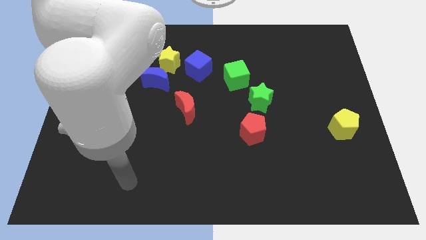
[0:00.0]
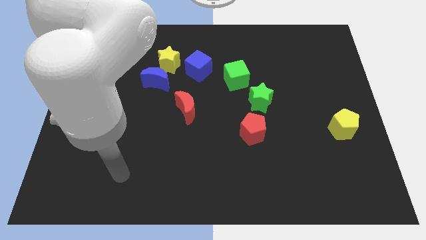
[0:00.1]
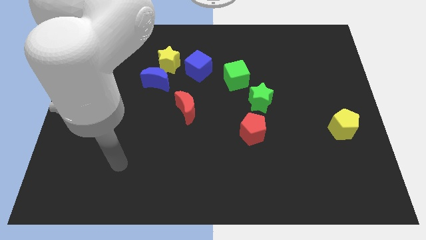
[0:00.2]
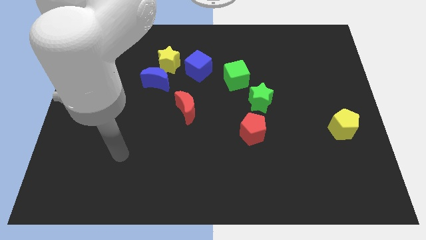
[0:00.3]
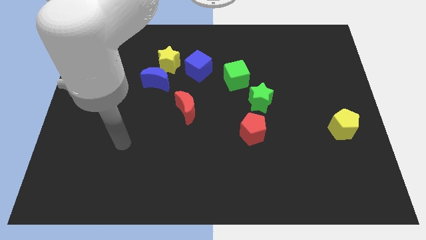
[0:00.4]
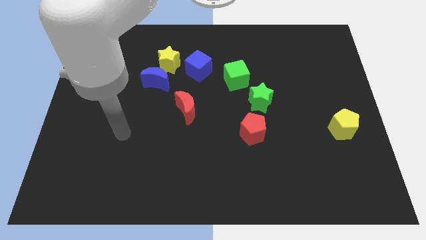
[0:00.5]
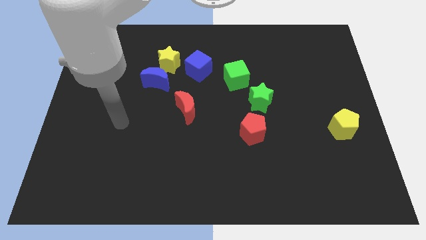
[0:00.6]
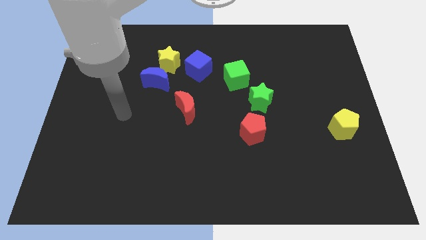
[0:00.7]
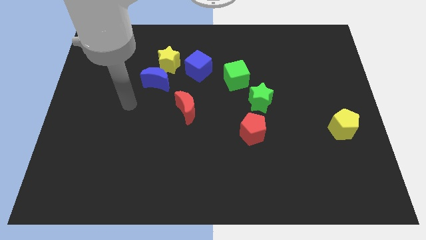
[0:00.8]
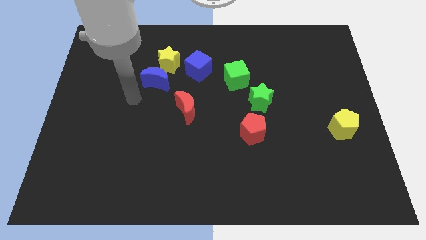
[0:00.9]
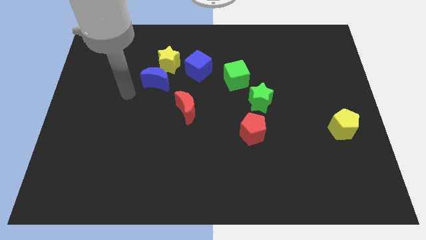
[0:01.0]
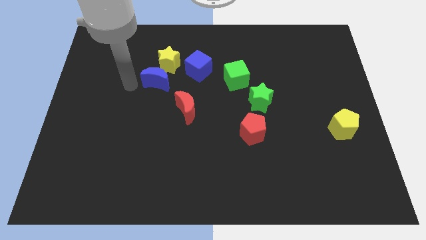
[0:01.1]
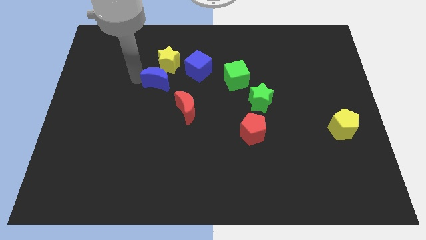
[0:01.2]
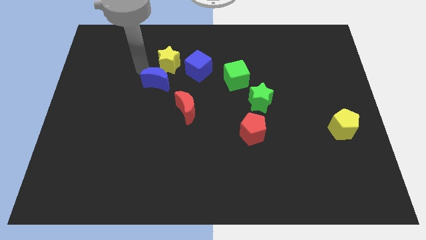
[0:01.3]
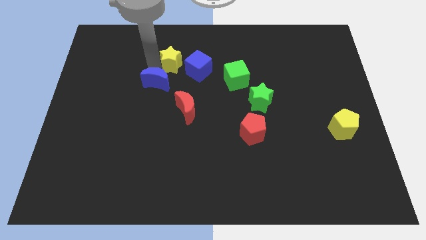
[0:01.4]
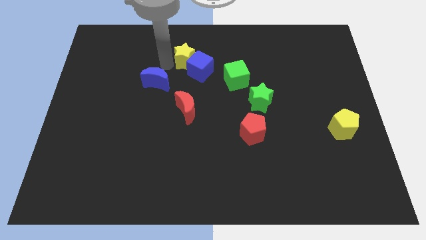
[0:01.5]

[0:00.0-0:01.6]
separate the blue moon from the yellow star

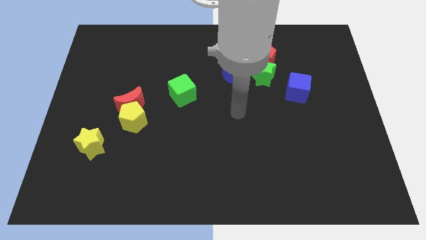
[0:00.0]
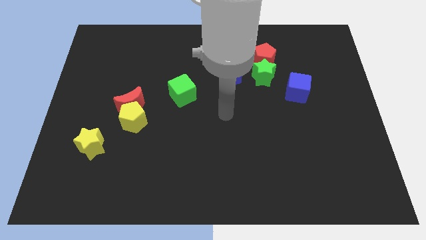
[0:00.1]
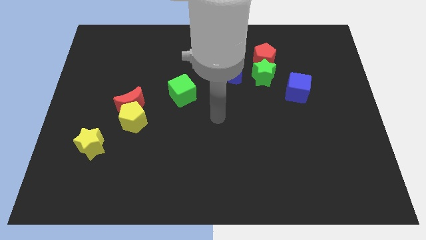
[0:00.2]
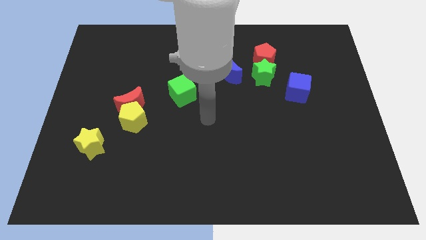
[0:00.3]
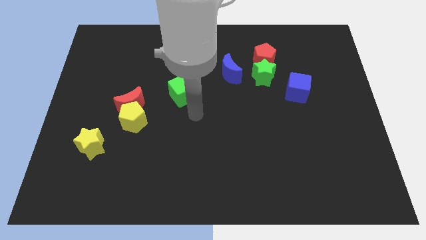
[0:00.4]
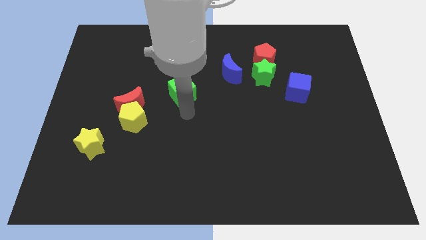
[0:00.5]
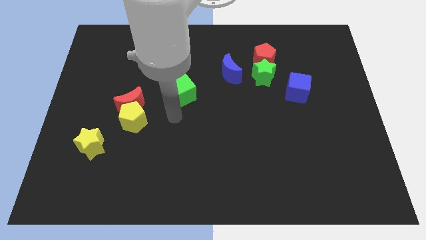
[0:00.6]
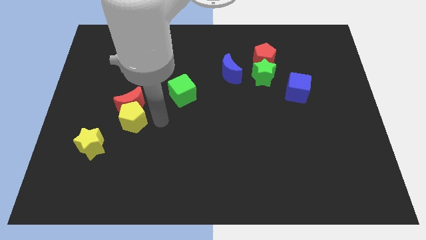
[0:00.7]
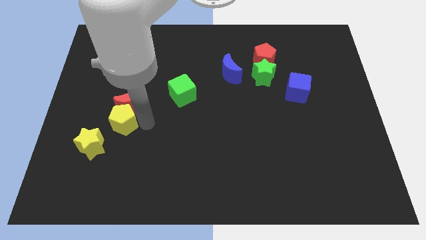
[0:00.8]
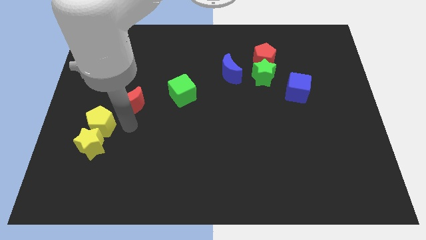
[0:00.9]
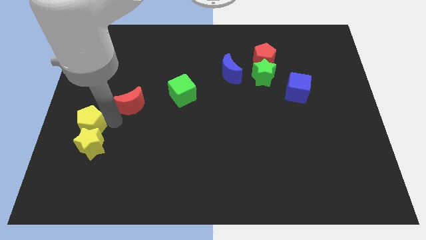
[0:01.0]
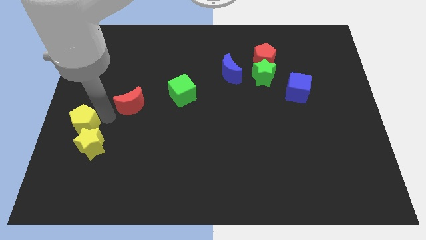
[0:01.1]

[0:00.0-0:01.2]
move the red moon away from the yellow pentagon

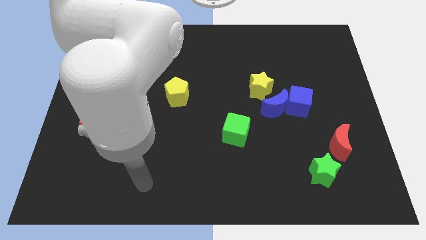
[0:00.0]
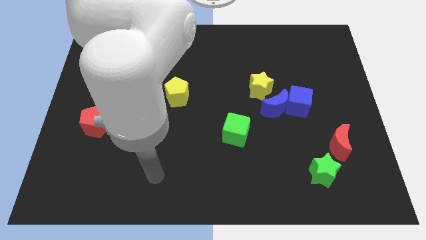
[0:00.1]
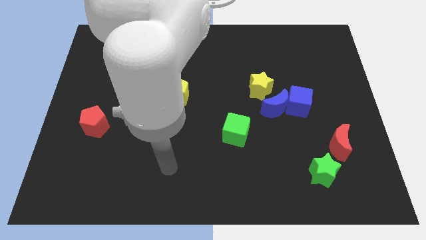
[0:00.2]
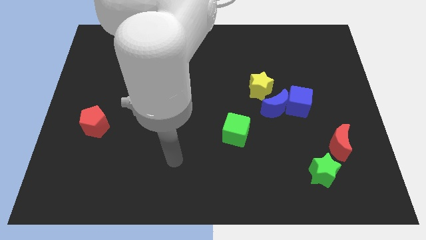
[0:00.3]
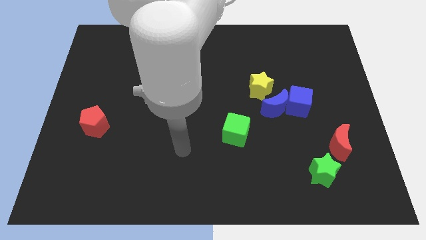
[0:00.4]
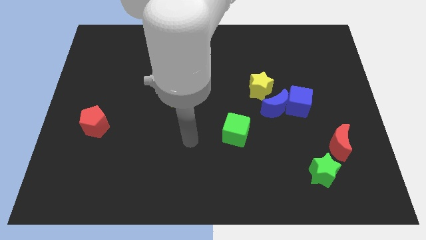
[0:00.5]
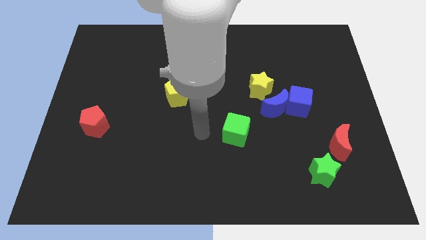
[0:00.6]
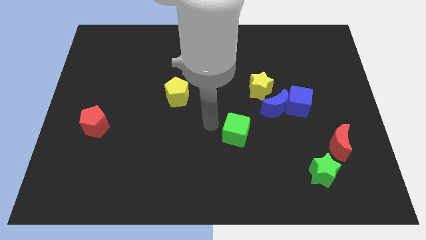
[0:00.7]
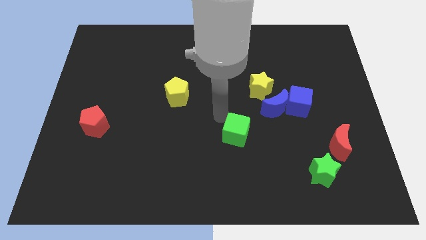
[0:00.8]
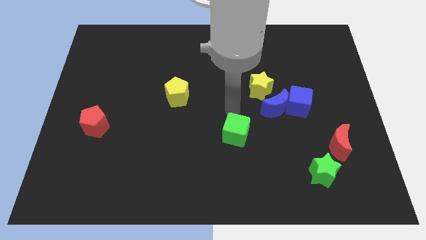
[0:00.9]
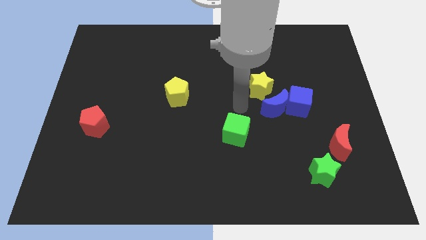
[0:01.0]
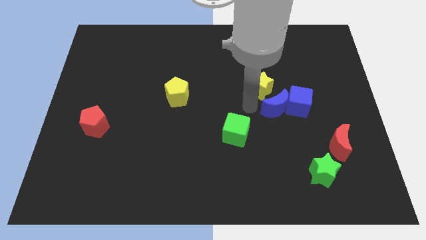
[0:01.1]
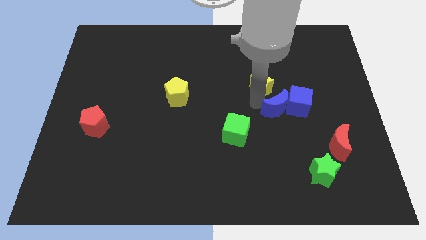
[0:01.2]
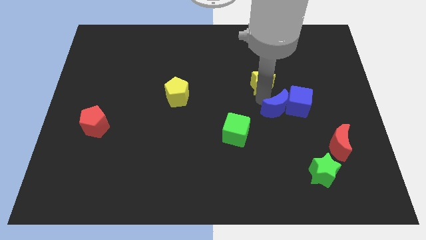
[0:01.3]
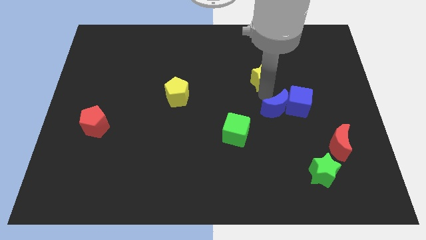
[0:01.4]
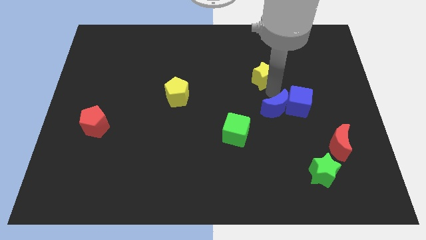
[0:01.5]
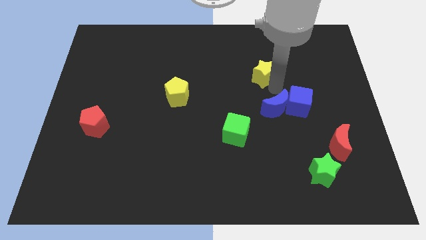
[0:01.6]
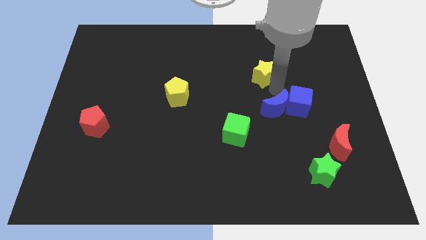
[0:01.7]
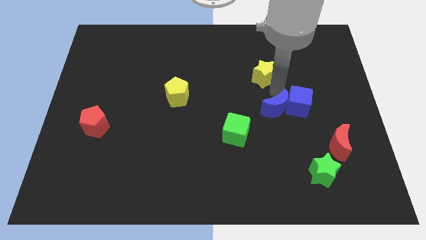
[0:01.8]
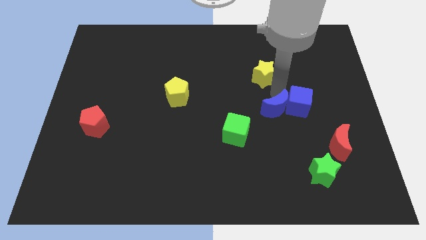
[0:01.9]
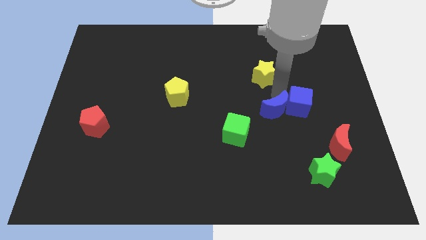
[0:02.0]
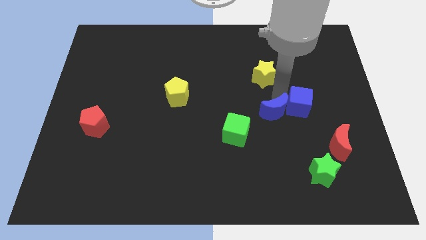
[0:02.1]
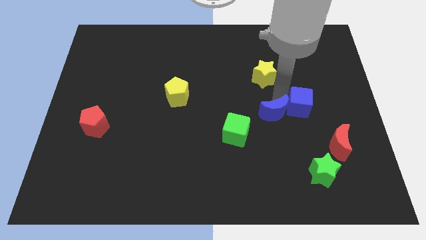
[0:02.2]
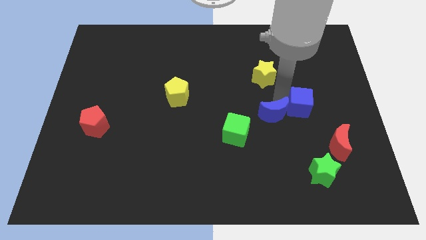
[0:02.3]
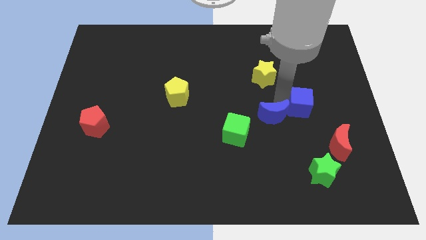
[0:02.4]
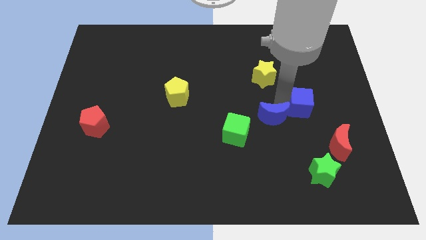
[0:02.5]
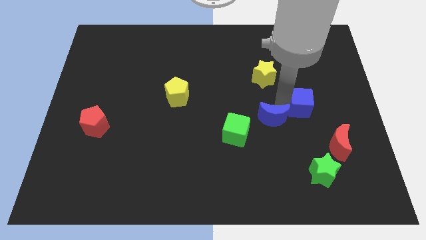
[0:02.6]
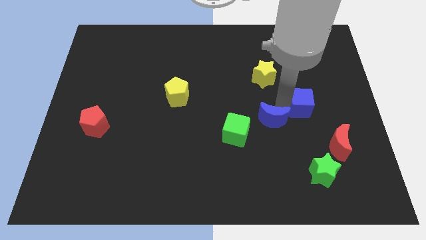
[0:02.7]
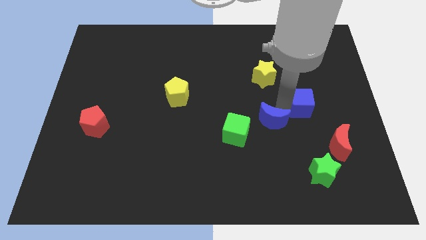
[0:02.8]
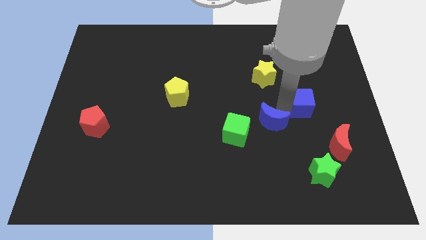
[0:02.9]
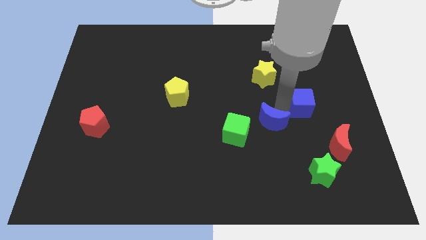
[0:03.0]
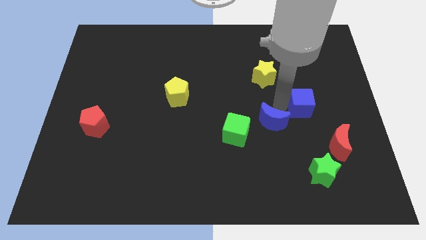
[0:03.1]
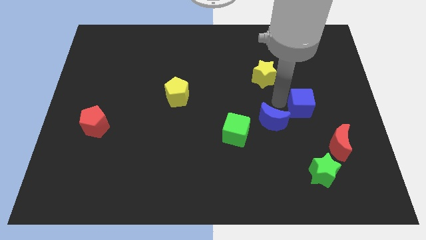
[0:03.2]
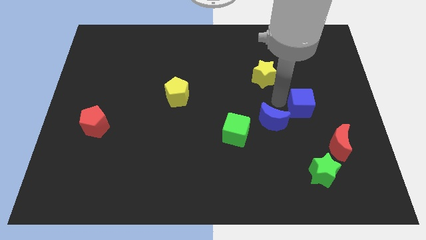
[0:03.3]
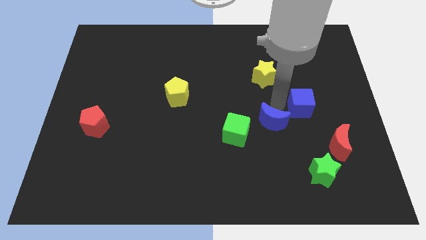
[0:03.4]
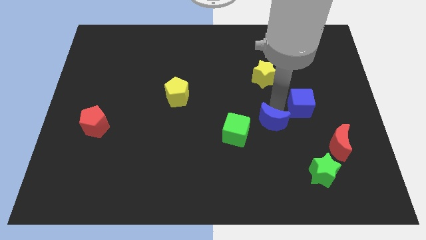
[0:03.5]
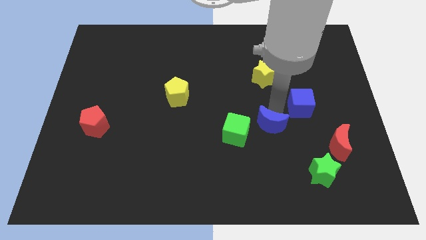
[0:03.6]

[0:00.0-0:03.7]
separate the blue moon from the blue cube and yellow star

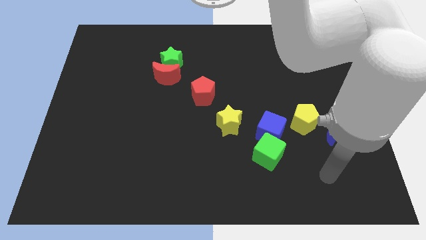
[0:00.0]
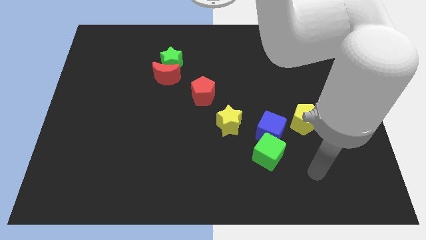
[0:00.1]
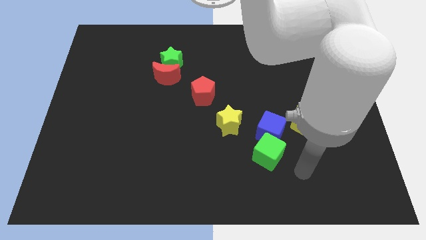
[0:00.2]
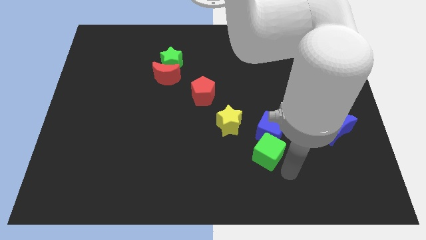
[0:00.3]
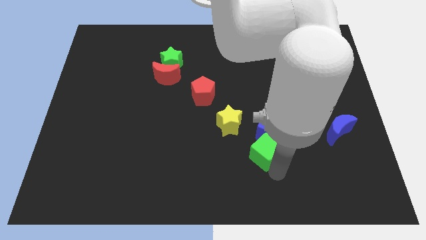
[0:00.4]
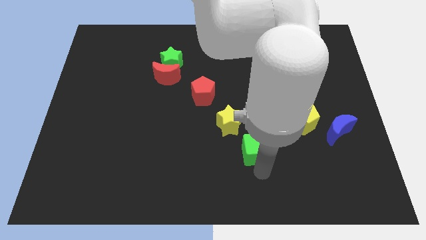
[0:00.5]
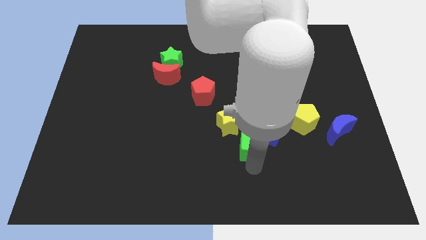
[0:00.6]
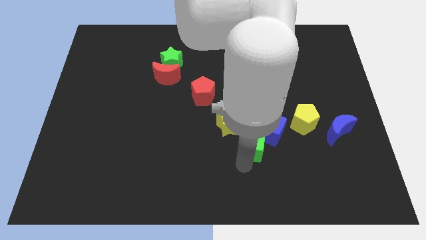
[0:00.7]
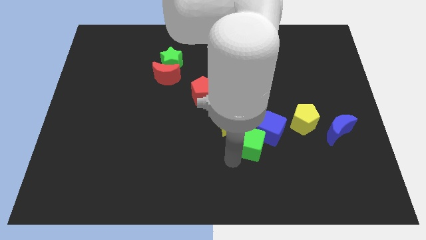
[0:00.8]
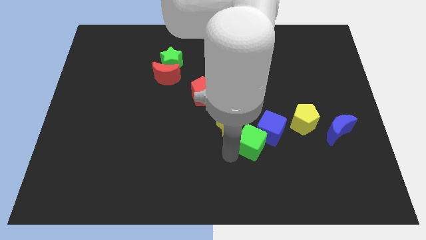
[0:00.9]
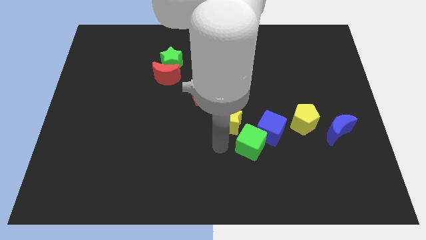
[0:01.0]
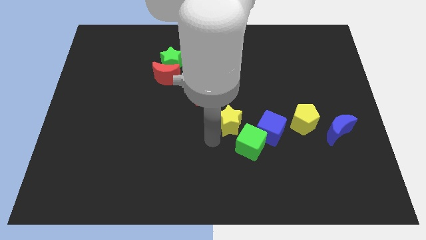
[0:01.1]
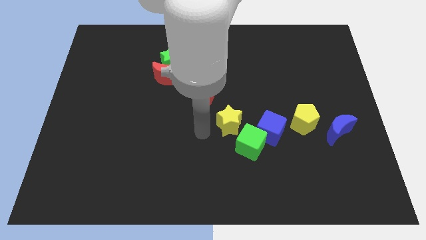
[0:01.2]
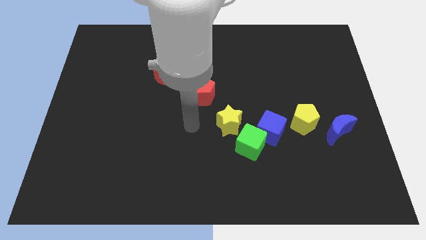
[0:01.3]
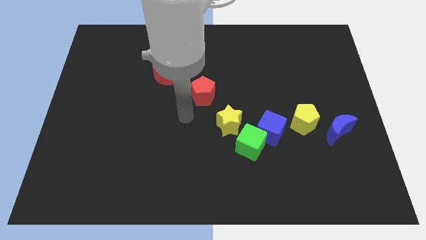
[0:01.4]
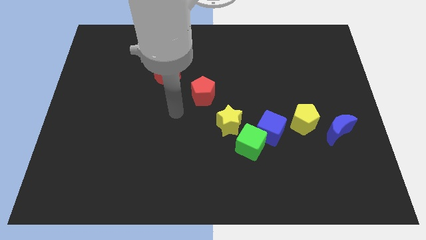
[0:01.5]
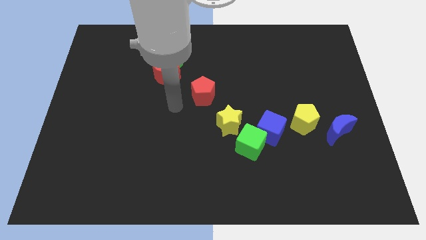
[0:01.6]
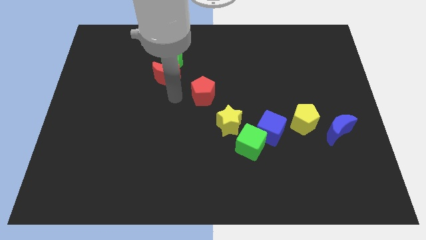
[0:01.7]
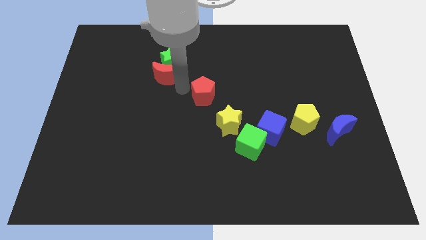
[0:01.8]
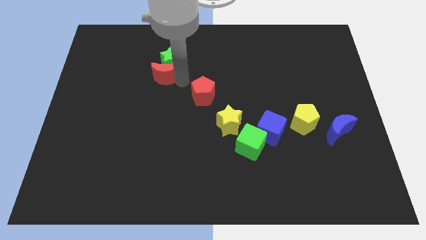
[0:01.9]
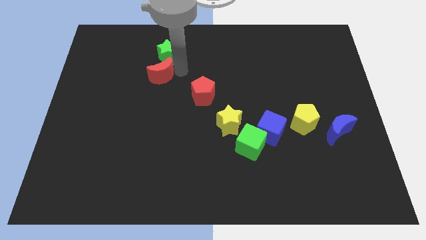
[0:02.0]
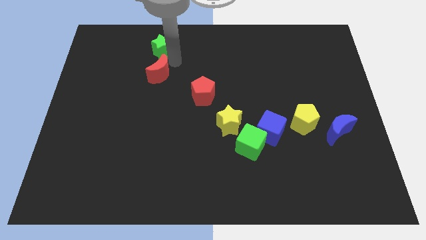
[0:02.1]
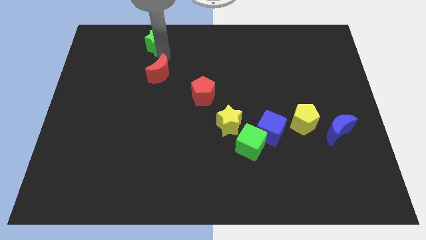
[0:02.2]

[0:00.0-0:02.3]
move the red moon away from the green star

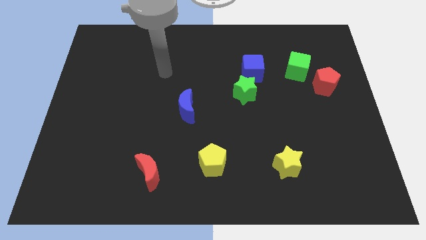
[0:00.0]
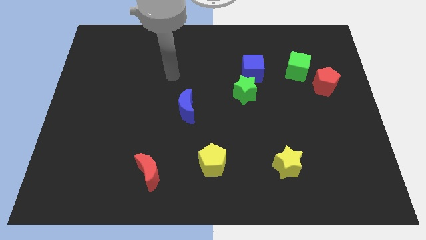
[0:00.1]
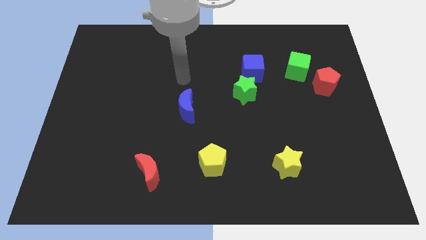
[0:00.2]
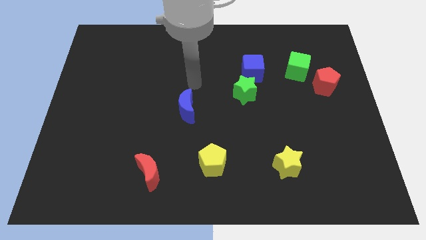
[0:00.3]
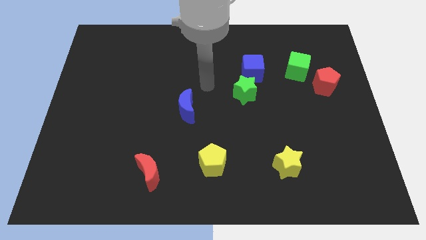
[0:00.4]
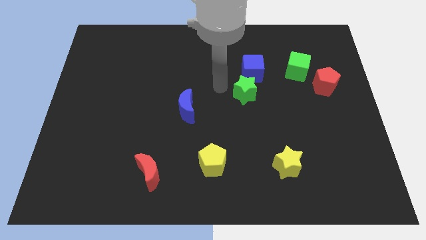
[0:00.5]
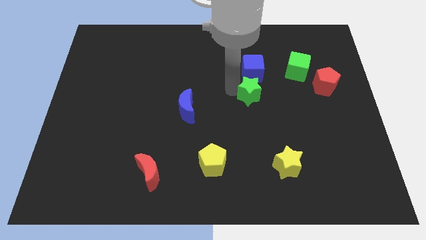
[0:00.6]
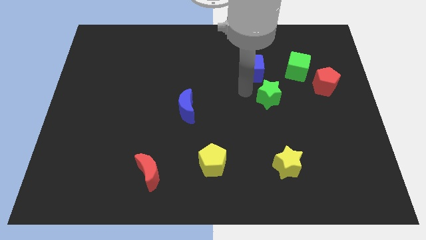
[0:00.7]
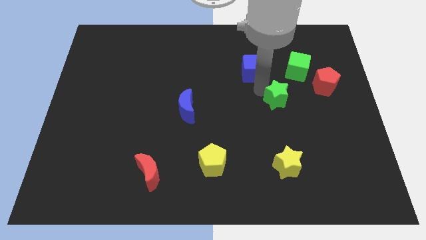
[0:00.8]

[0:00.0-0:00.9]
separate the blue cube from the green star
